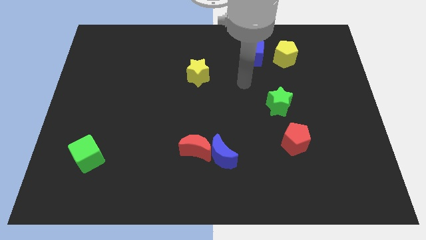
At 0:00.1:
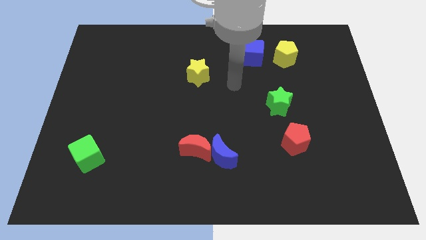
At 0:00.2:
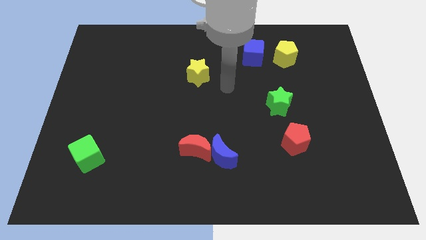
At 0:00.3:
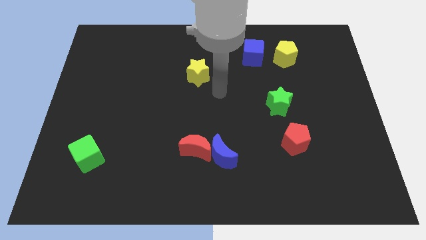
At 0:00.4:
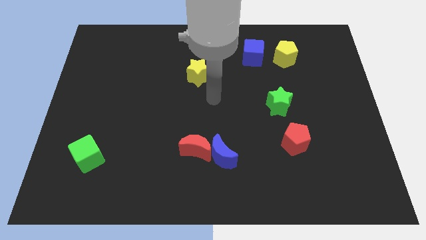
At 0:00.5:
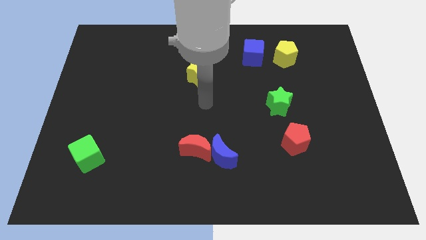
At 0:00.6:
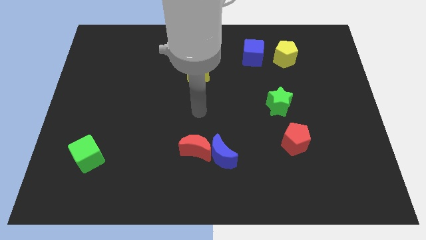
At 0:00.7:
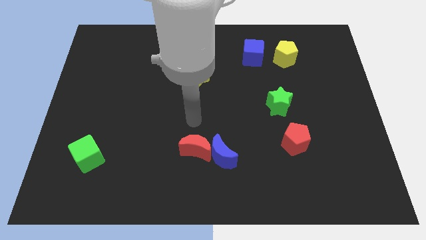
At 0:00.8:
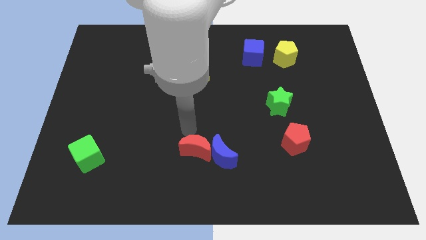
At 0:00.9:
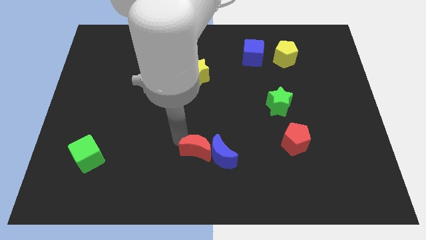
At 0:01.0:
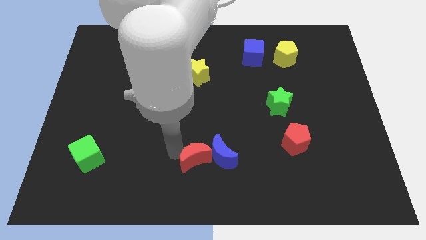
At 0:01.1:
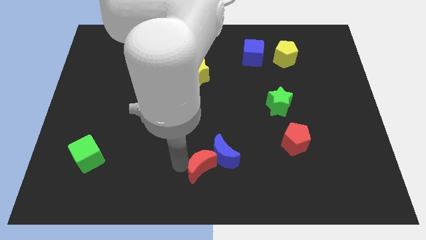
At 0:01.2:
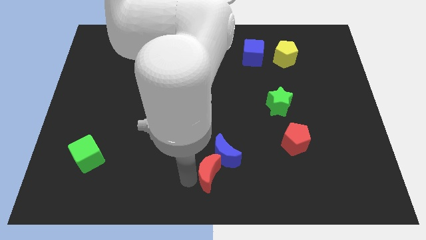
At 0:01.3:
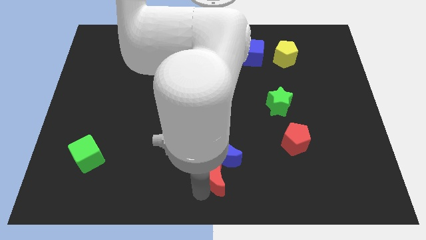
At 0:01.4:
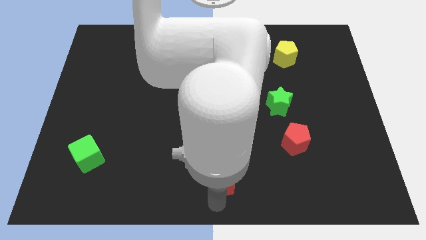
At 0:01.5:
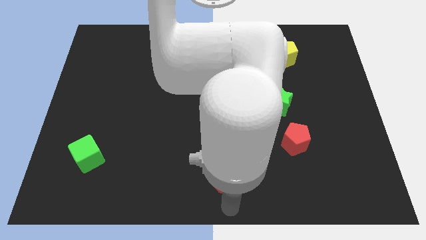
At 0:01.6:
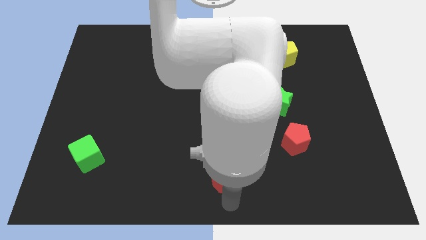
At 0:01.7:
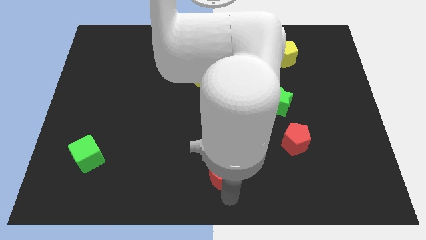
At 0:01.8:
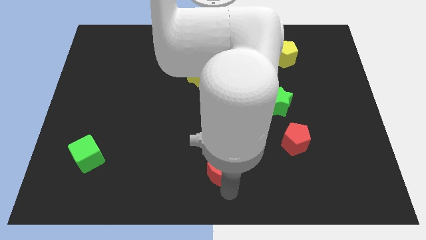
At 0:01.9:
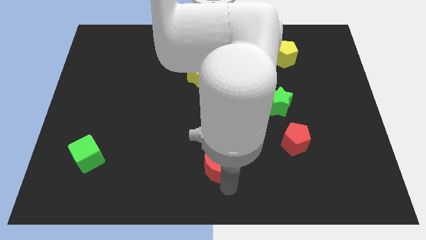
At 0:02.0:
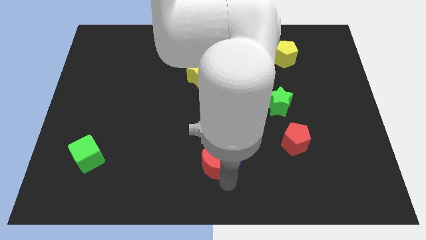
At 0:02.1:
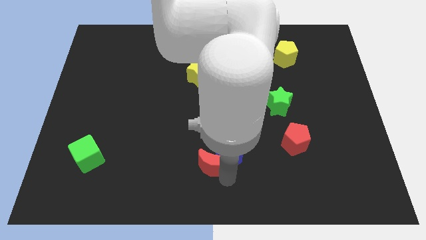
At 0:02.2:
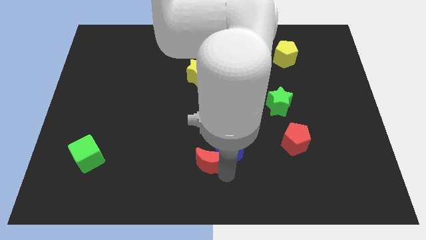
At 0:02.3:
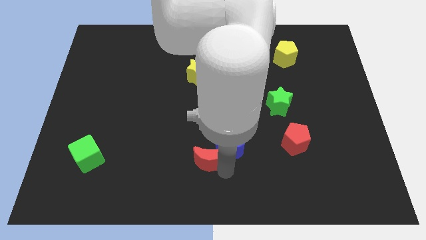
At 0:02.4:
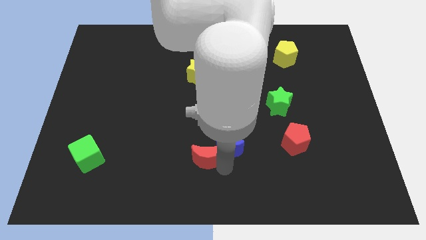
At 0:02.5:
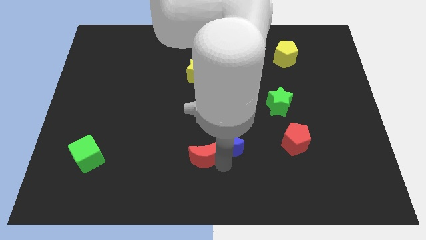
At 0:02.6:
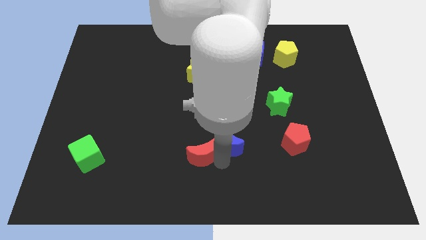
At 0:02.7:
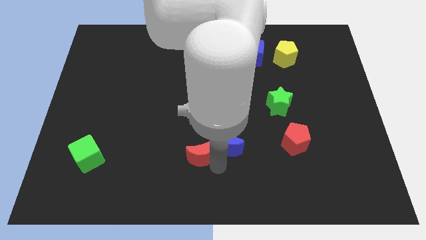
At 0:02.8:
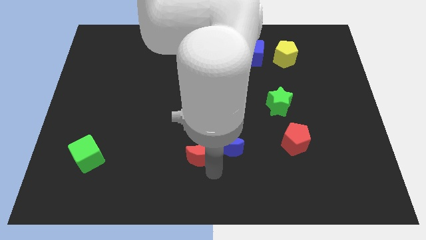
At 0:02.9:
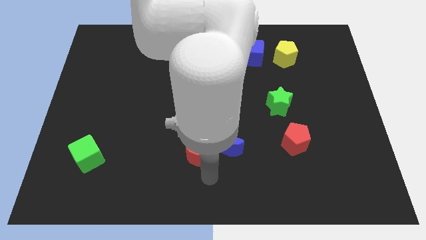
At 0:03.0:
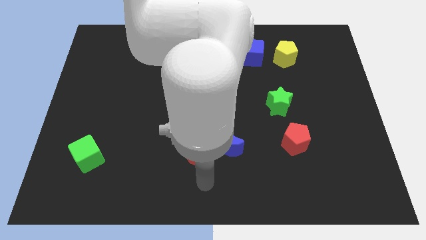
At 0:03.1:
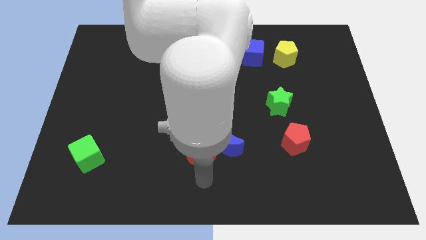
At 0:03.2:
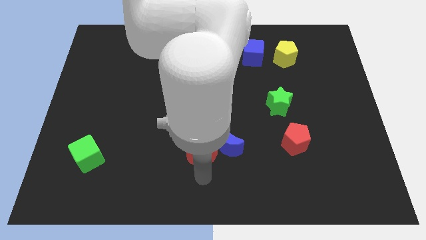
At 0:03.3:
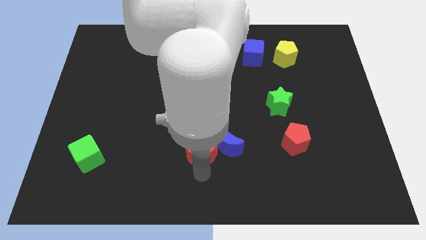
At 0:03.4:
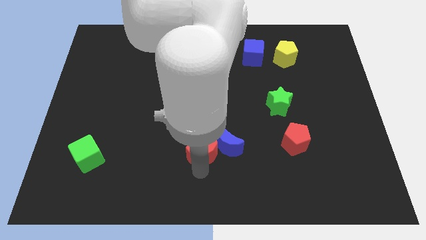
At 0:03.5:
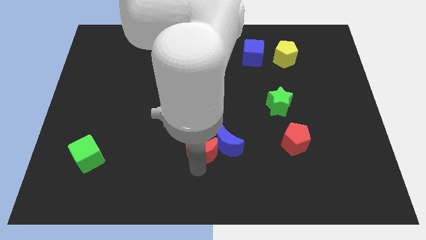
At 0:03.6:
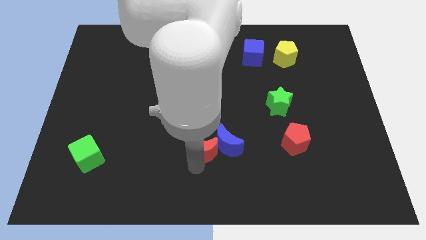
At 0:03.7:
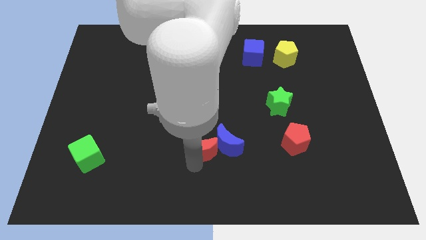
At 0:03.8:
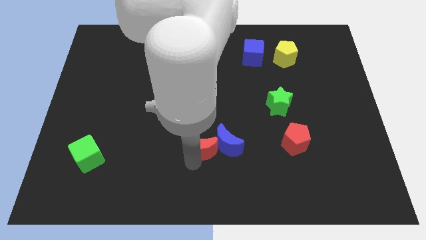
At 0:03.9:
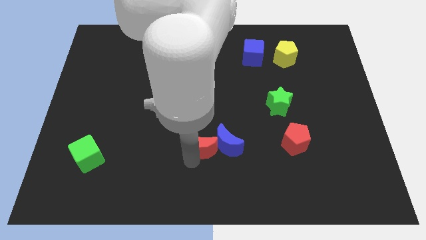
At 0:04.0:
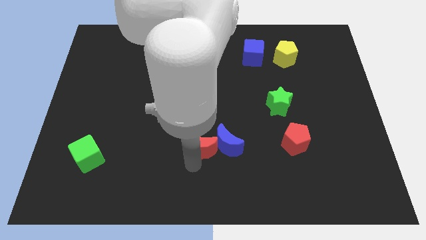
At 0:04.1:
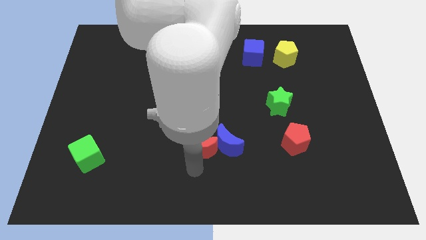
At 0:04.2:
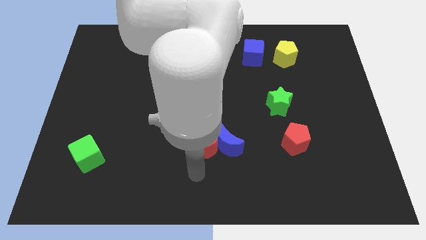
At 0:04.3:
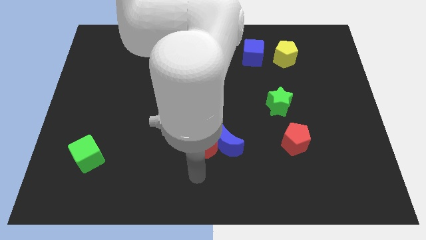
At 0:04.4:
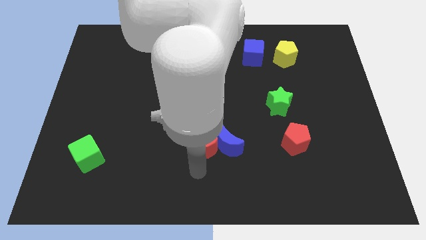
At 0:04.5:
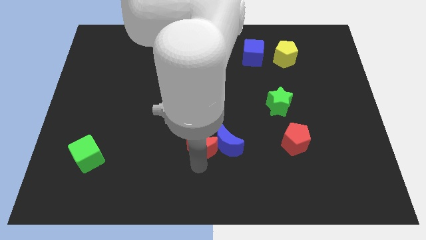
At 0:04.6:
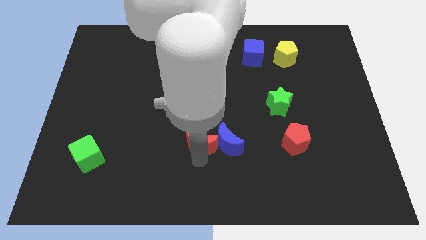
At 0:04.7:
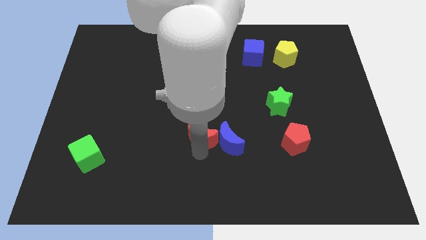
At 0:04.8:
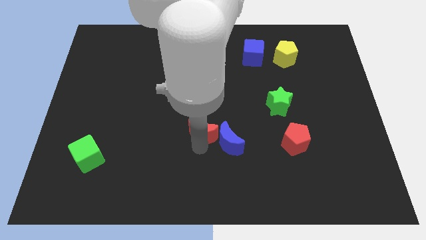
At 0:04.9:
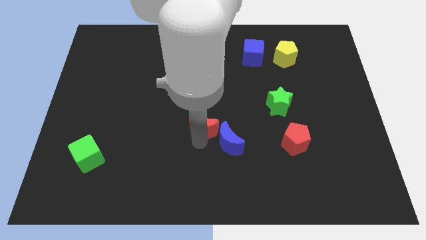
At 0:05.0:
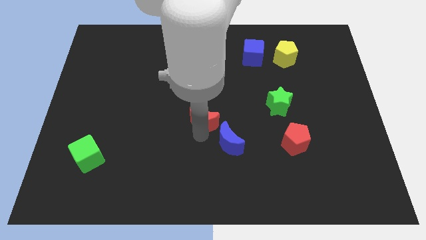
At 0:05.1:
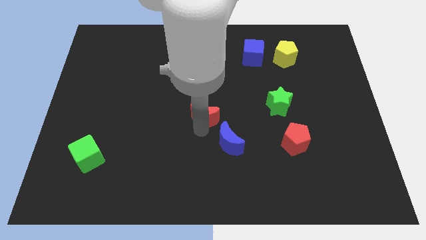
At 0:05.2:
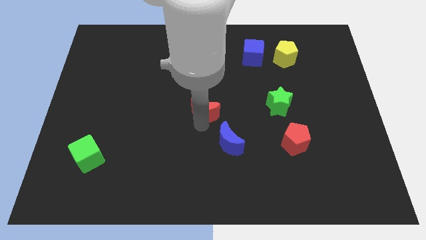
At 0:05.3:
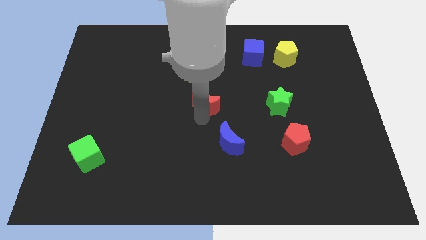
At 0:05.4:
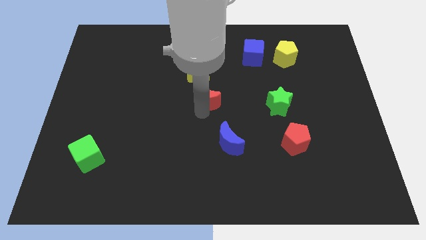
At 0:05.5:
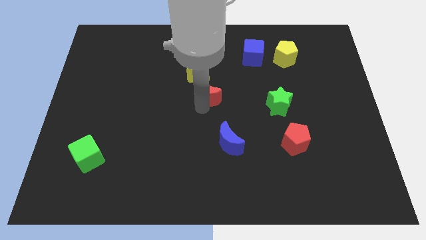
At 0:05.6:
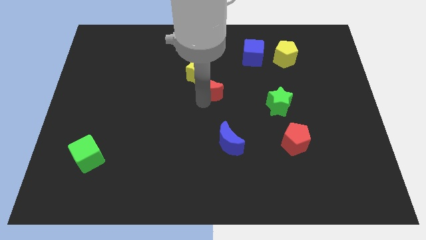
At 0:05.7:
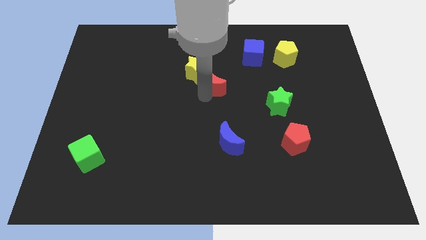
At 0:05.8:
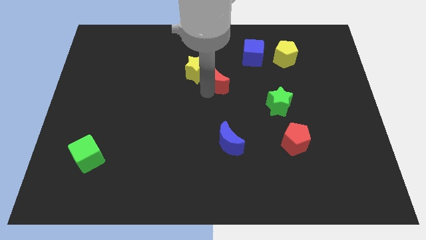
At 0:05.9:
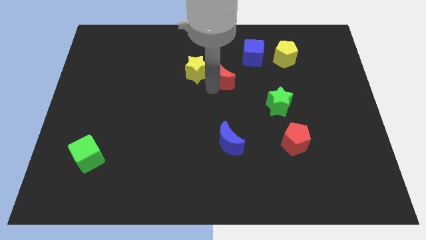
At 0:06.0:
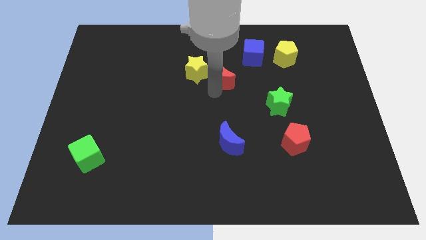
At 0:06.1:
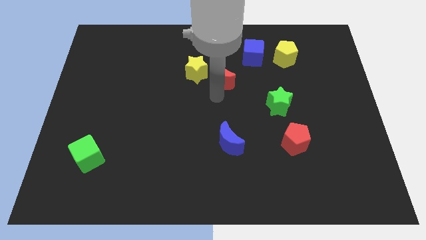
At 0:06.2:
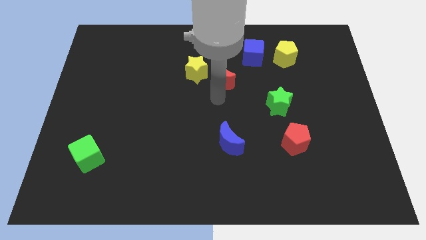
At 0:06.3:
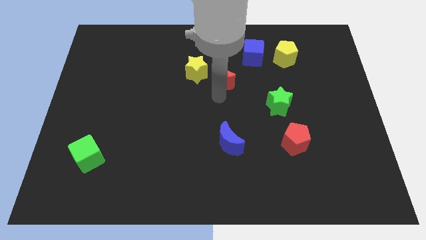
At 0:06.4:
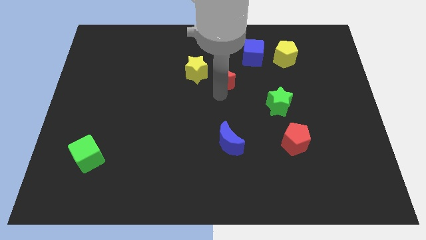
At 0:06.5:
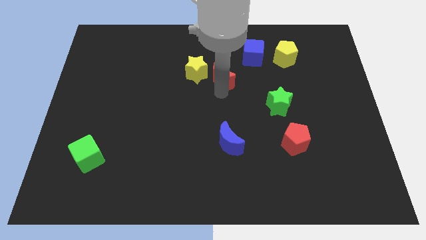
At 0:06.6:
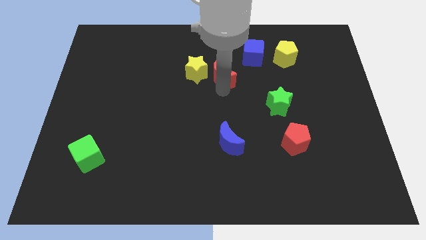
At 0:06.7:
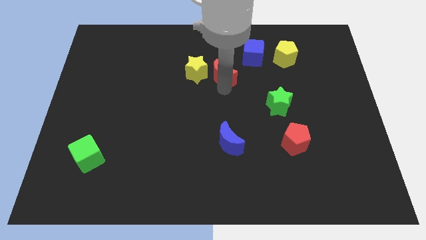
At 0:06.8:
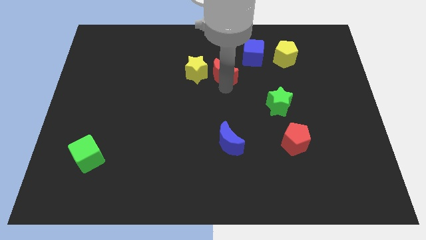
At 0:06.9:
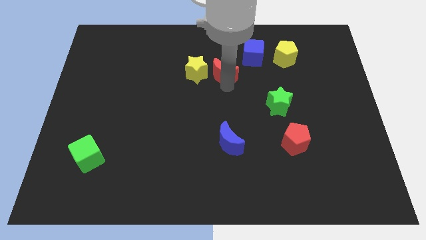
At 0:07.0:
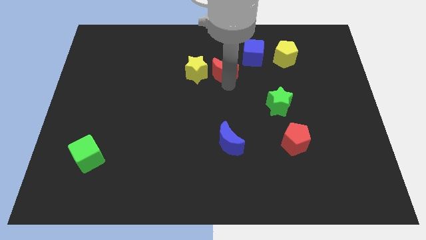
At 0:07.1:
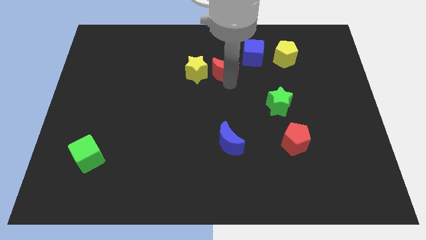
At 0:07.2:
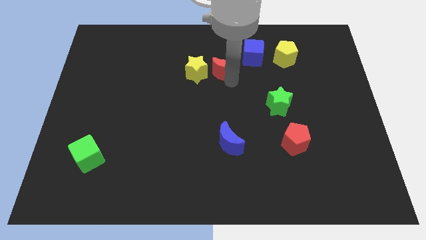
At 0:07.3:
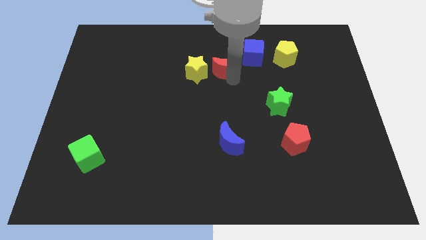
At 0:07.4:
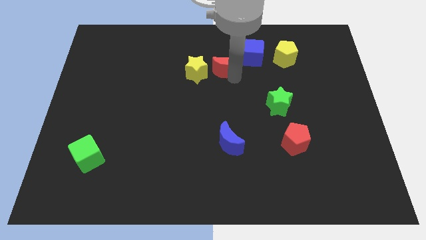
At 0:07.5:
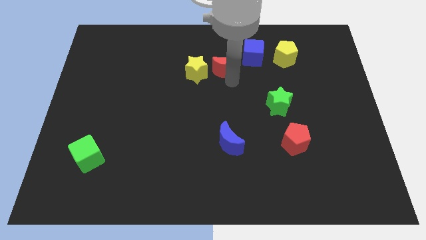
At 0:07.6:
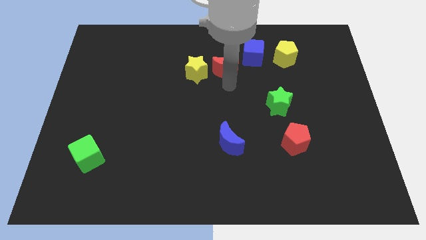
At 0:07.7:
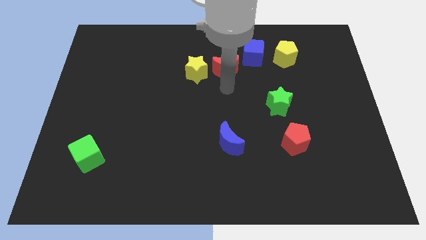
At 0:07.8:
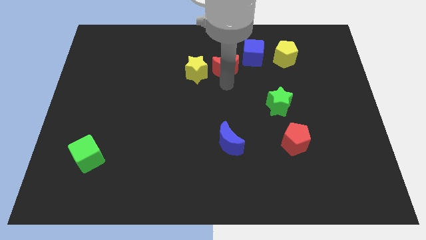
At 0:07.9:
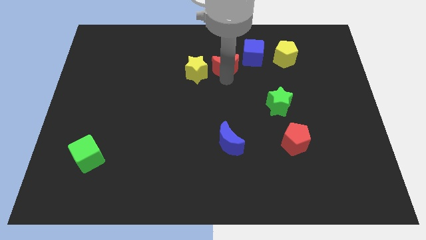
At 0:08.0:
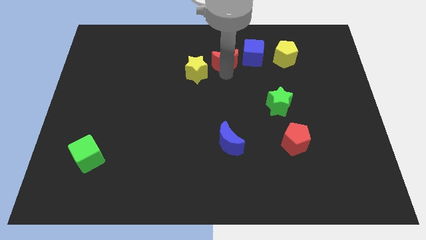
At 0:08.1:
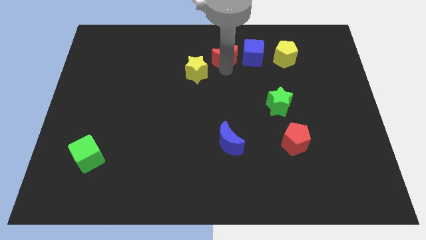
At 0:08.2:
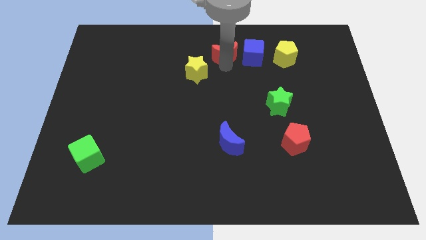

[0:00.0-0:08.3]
move the red moon to the towards your base
